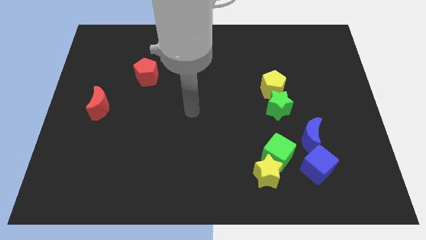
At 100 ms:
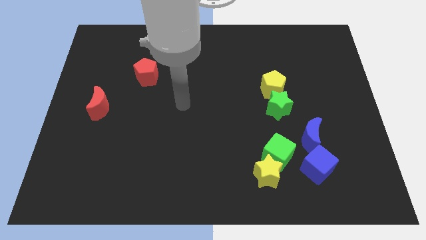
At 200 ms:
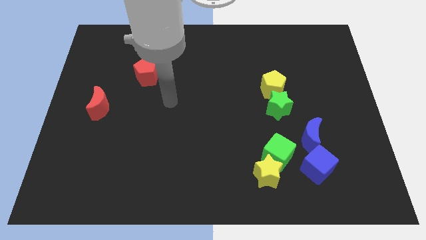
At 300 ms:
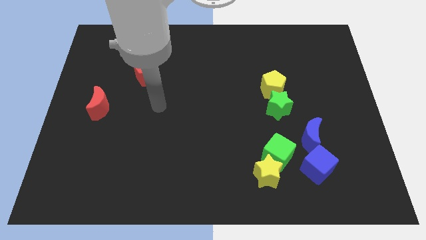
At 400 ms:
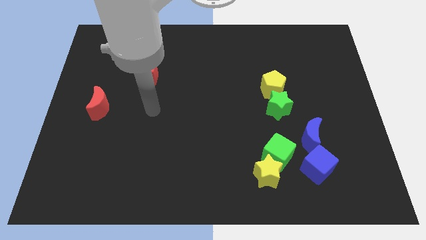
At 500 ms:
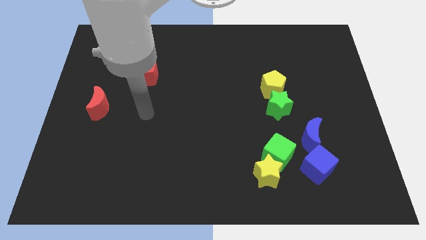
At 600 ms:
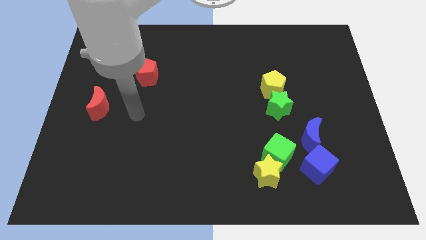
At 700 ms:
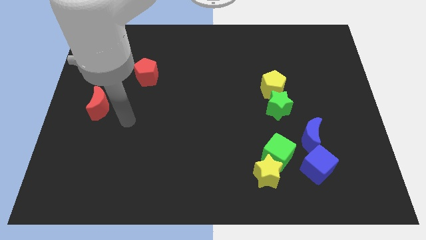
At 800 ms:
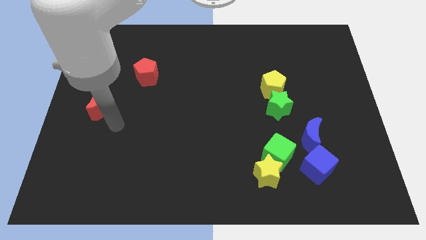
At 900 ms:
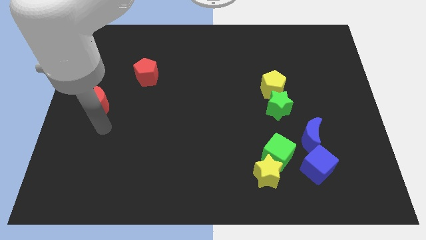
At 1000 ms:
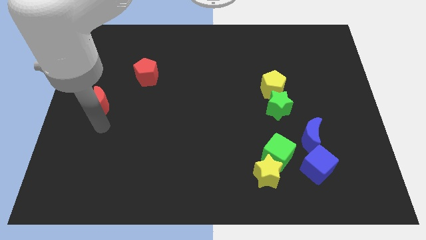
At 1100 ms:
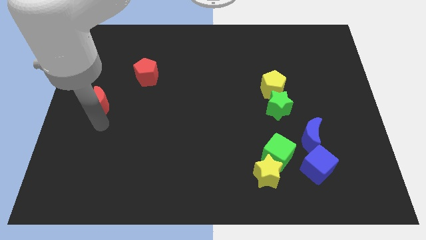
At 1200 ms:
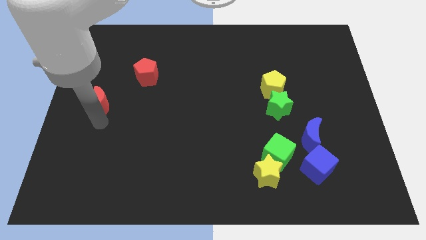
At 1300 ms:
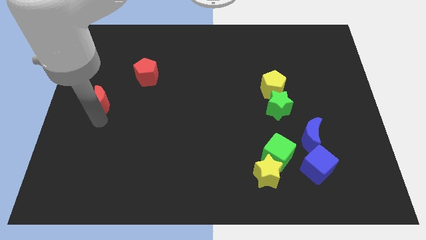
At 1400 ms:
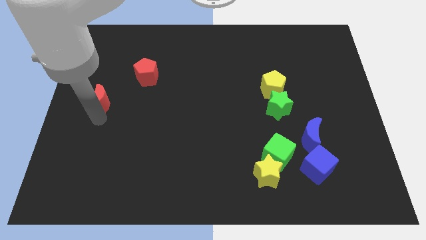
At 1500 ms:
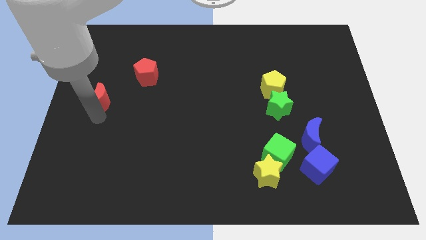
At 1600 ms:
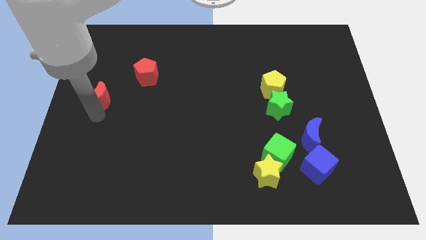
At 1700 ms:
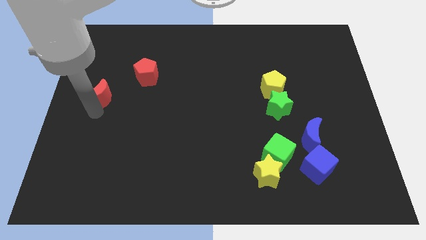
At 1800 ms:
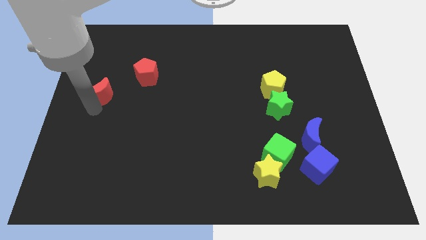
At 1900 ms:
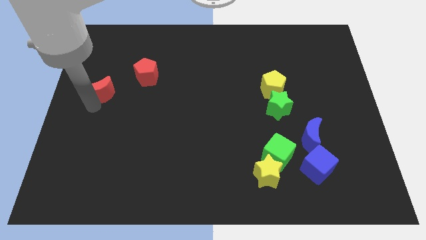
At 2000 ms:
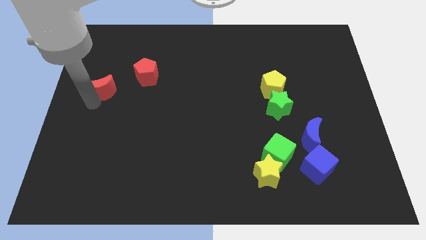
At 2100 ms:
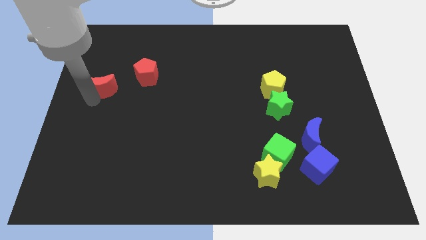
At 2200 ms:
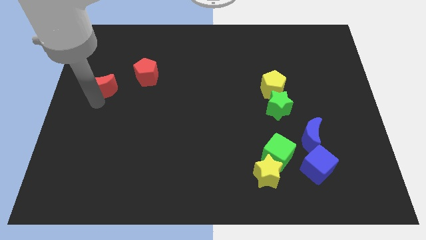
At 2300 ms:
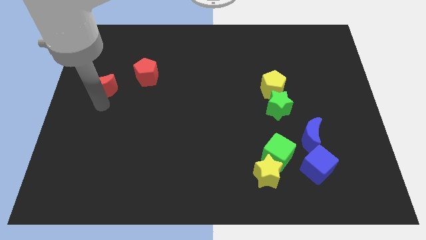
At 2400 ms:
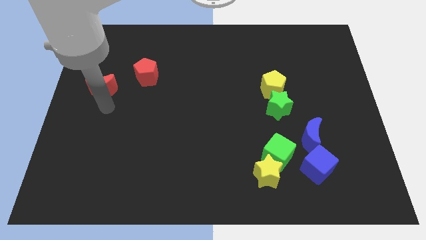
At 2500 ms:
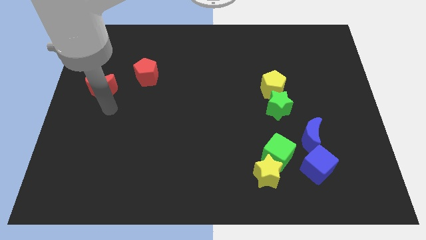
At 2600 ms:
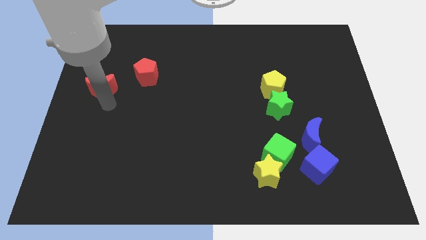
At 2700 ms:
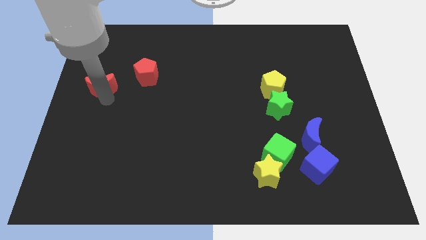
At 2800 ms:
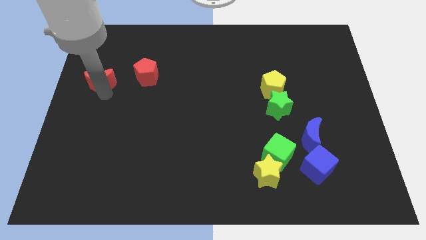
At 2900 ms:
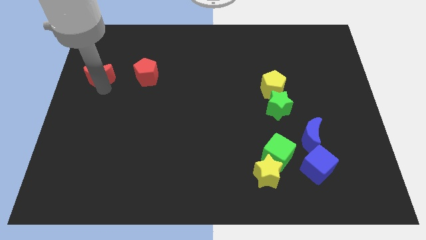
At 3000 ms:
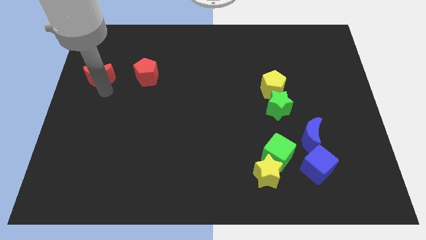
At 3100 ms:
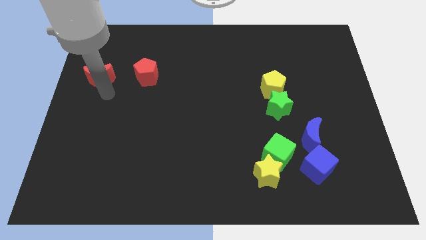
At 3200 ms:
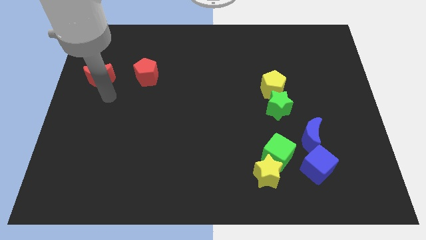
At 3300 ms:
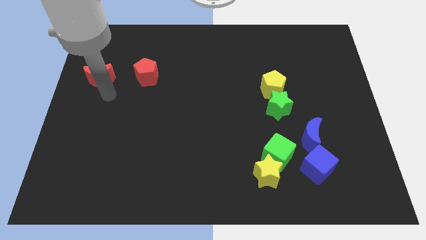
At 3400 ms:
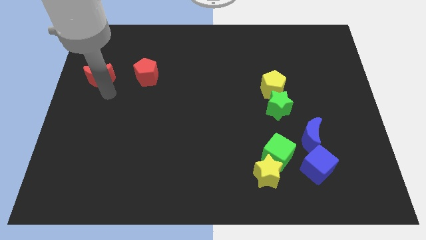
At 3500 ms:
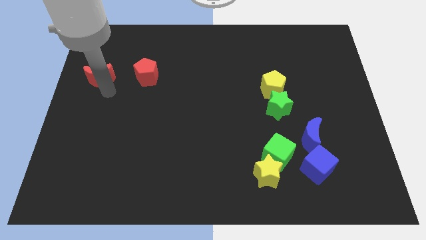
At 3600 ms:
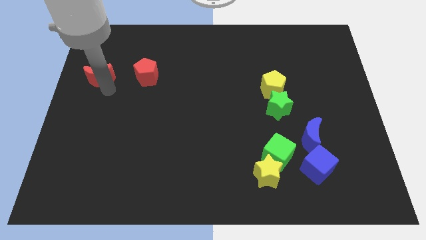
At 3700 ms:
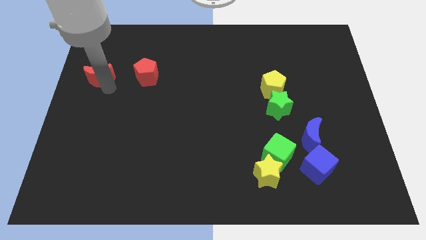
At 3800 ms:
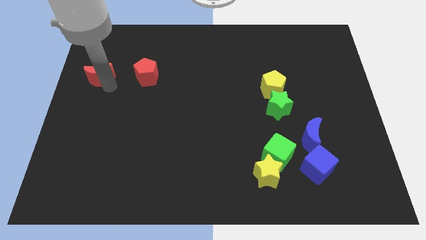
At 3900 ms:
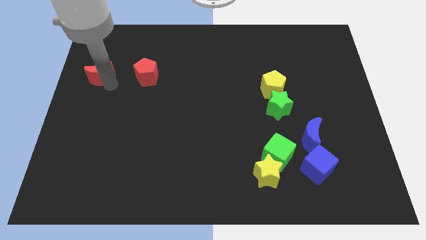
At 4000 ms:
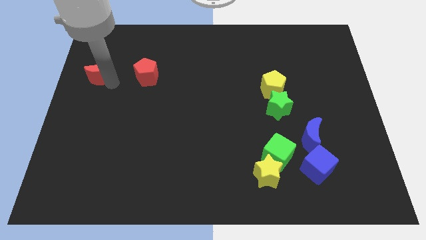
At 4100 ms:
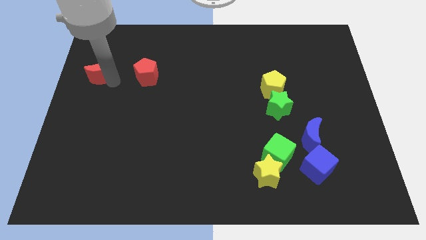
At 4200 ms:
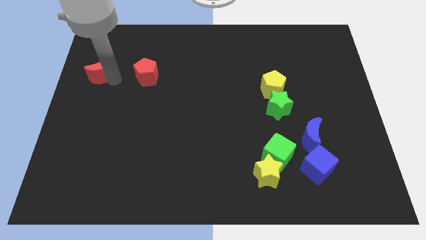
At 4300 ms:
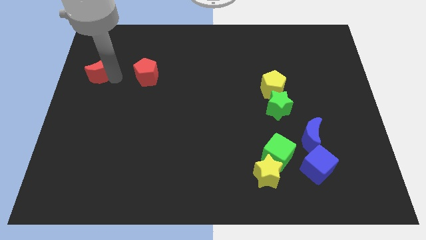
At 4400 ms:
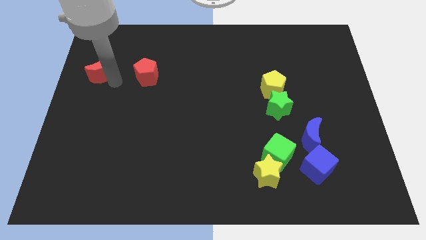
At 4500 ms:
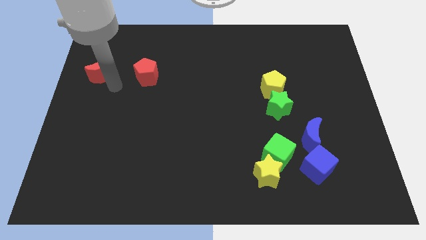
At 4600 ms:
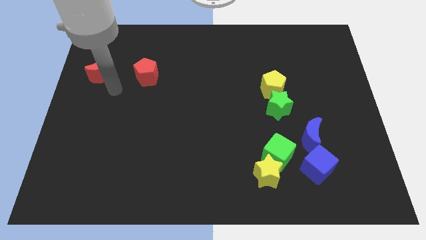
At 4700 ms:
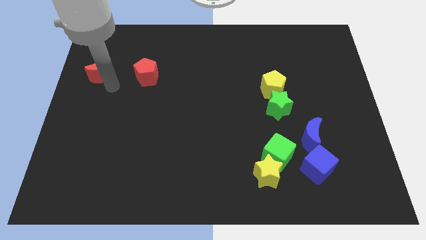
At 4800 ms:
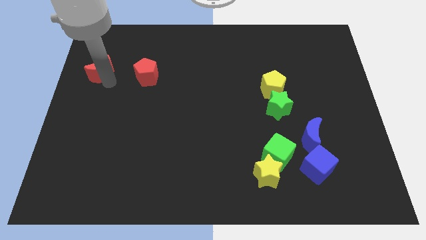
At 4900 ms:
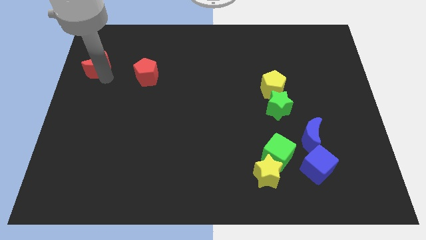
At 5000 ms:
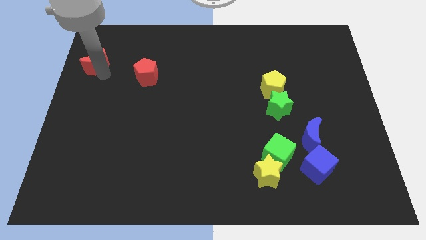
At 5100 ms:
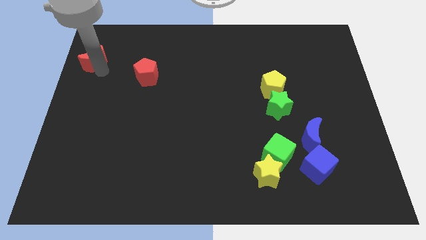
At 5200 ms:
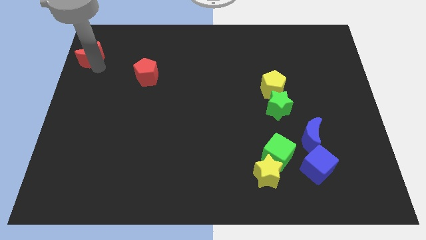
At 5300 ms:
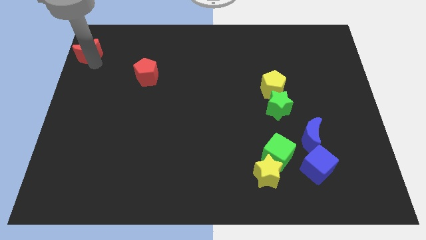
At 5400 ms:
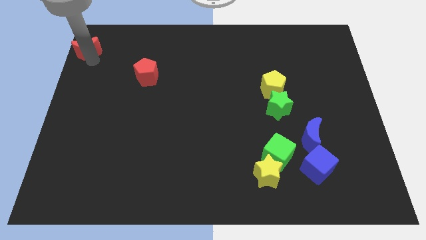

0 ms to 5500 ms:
push the red moon to the top left of the board

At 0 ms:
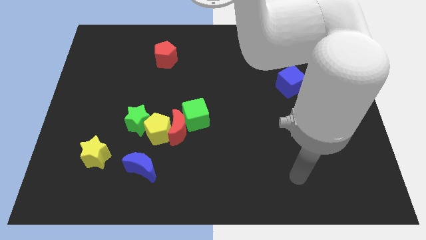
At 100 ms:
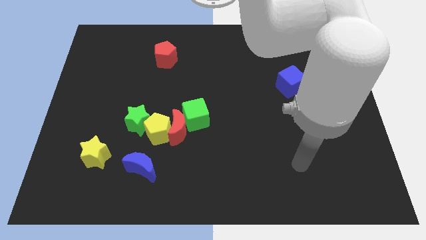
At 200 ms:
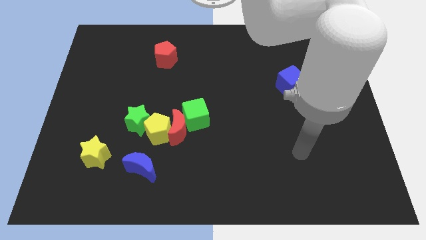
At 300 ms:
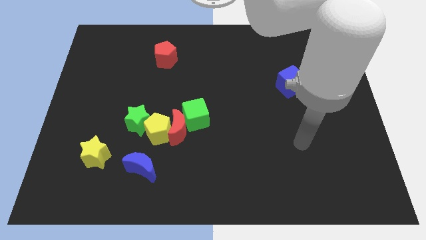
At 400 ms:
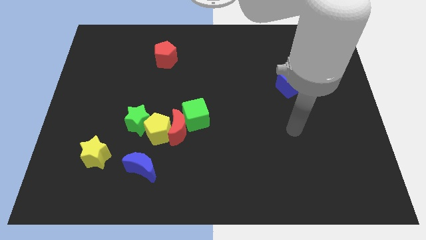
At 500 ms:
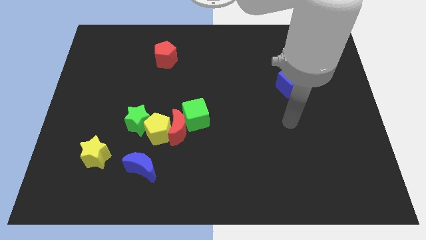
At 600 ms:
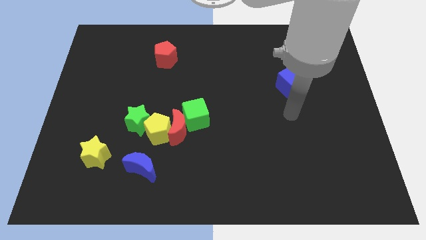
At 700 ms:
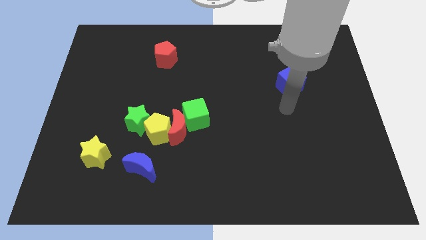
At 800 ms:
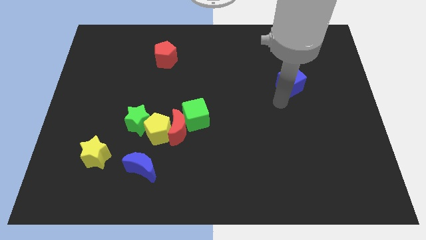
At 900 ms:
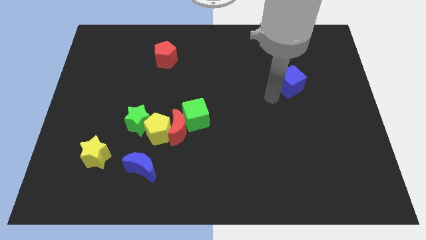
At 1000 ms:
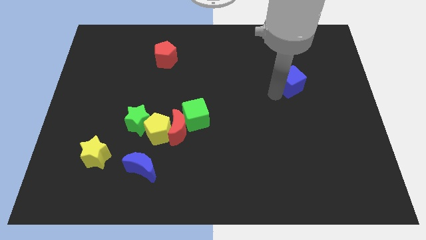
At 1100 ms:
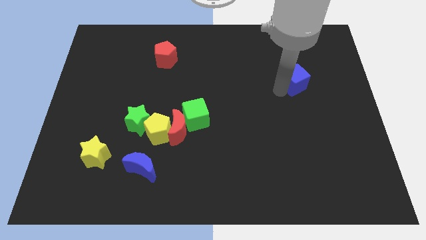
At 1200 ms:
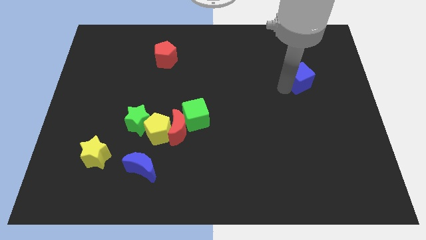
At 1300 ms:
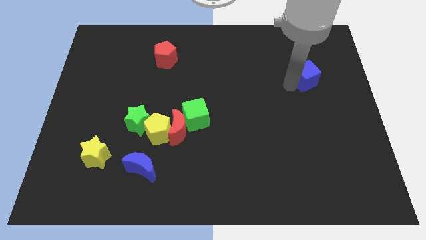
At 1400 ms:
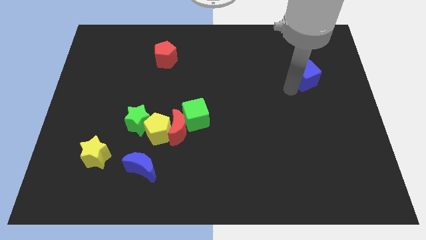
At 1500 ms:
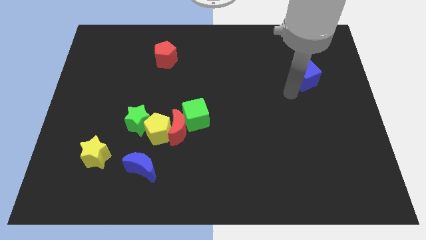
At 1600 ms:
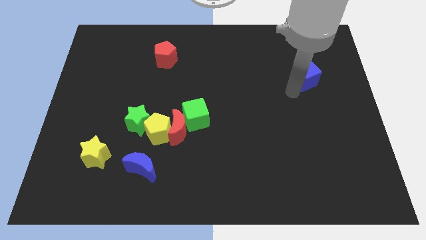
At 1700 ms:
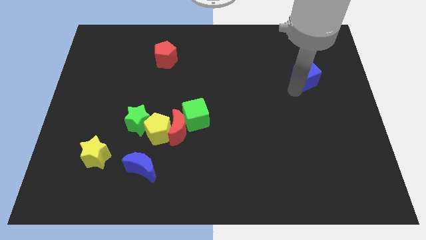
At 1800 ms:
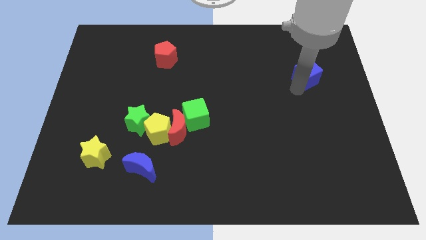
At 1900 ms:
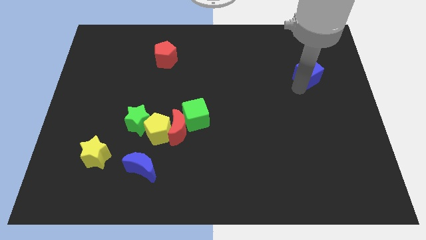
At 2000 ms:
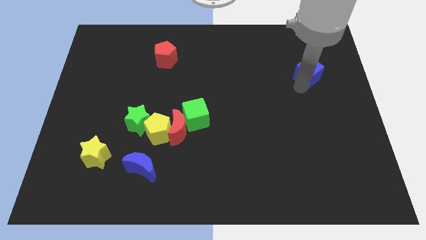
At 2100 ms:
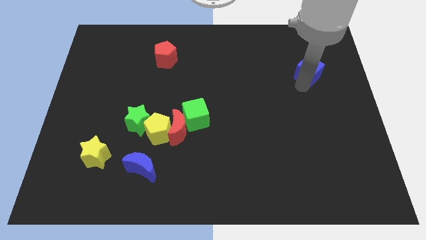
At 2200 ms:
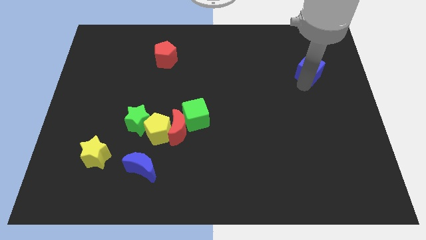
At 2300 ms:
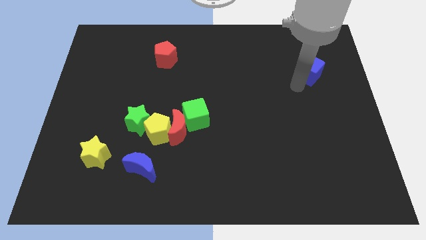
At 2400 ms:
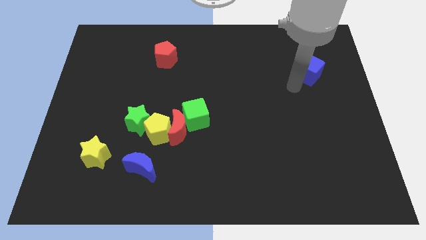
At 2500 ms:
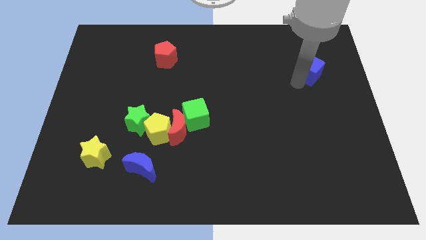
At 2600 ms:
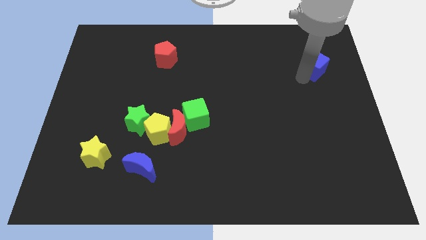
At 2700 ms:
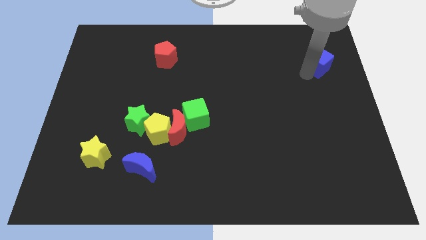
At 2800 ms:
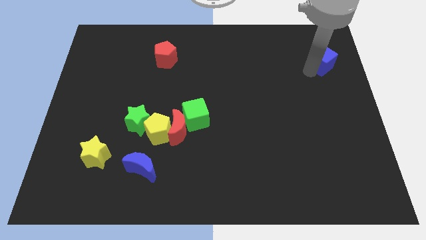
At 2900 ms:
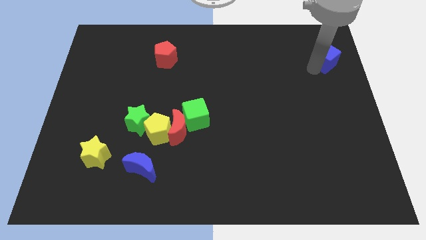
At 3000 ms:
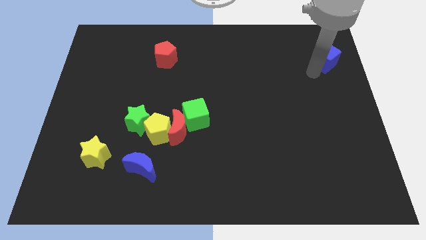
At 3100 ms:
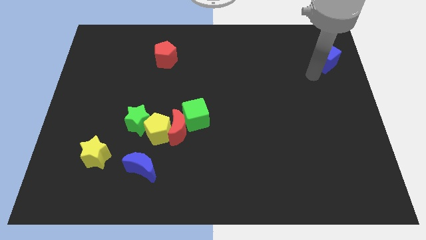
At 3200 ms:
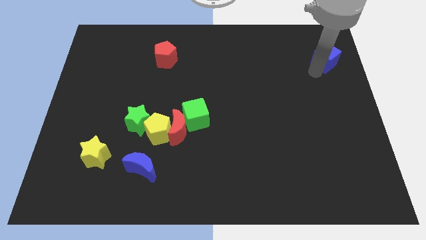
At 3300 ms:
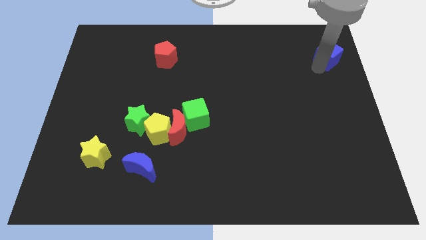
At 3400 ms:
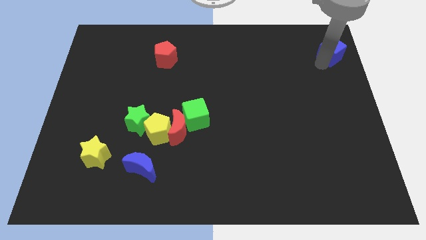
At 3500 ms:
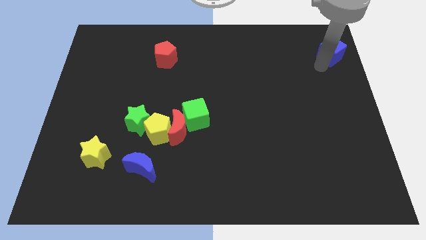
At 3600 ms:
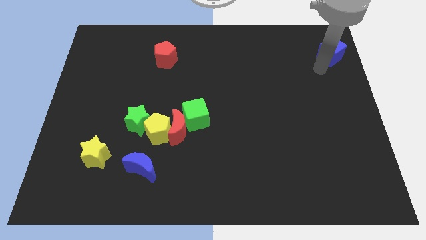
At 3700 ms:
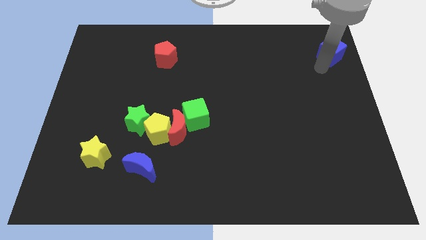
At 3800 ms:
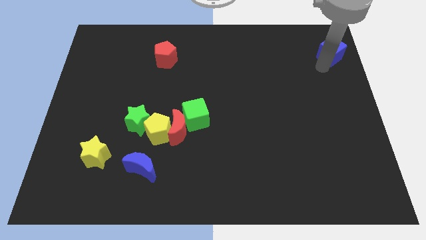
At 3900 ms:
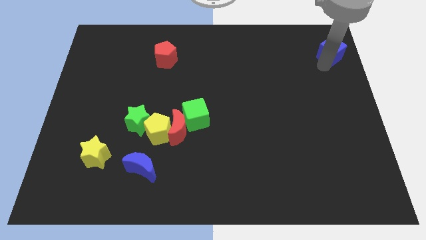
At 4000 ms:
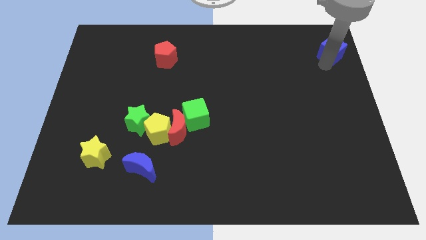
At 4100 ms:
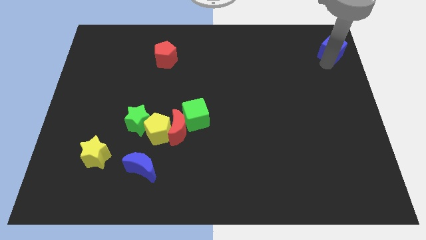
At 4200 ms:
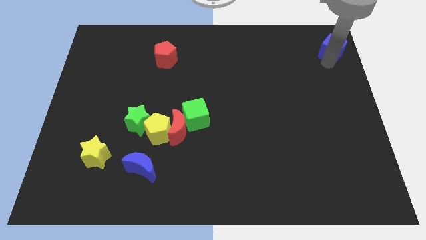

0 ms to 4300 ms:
move the blue cube to the top right corner
